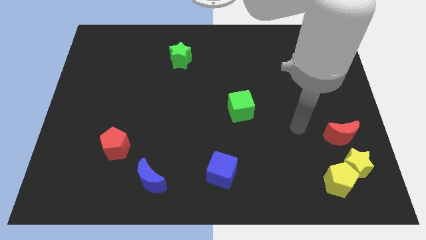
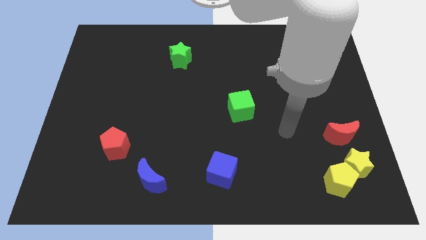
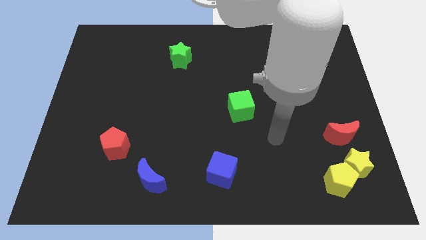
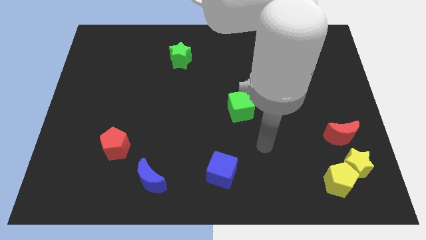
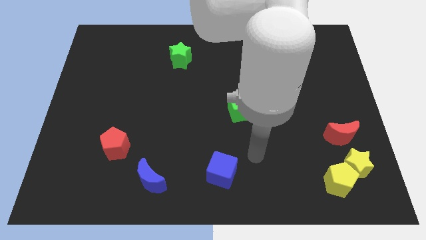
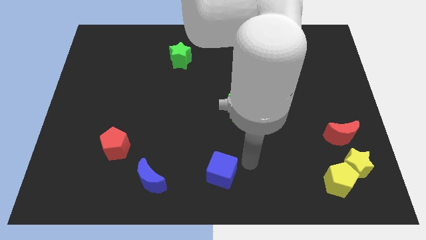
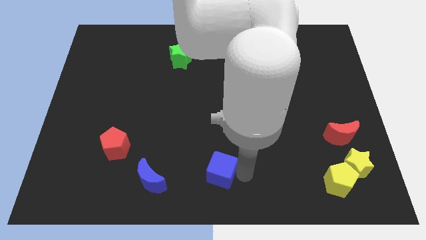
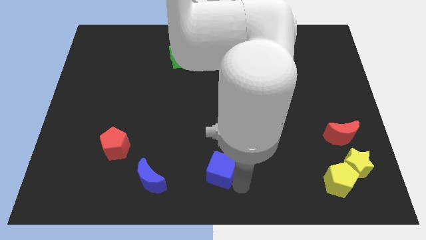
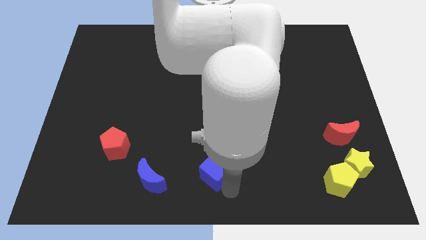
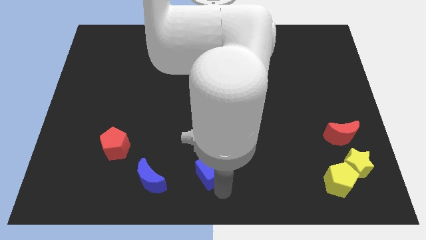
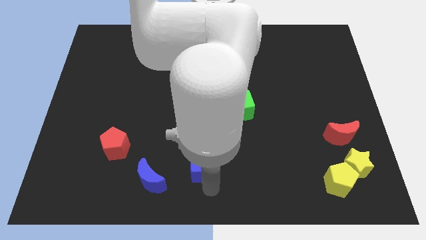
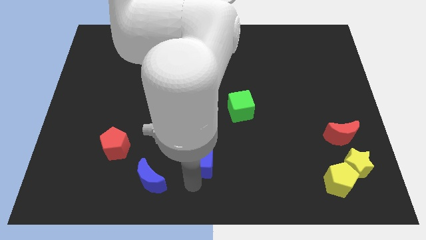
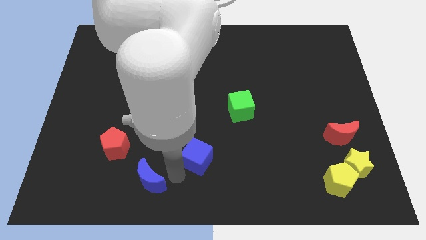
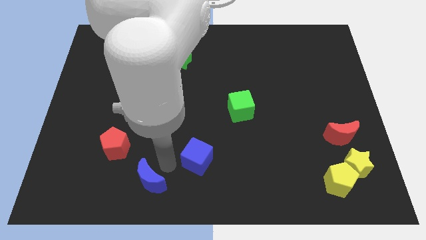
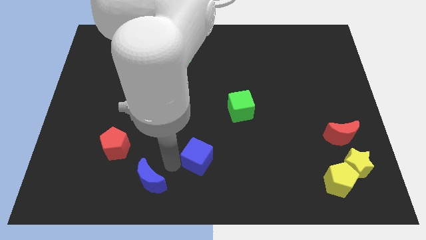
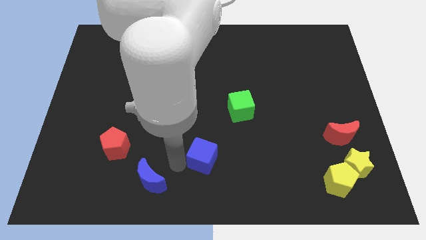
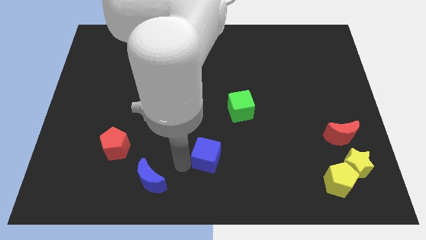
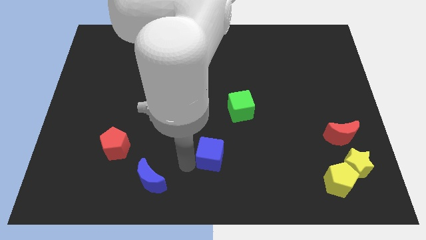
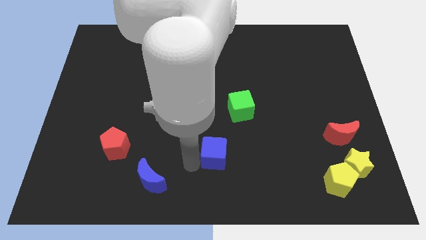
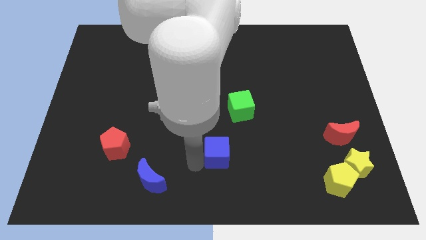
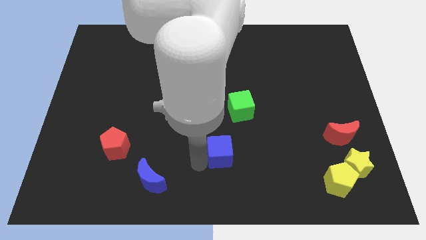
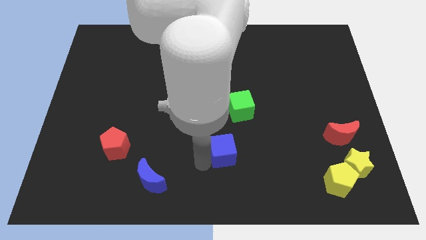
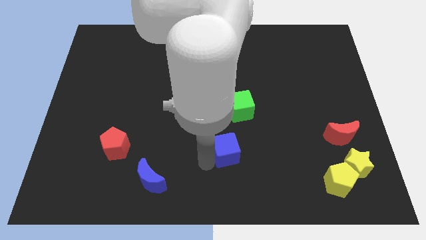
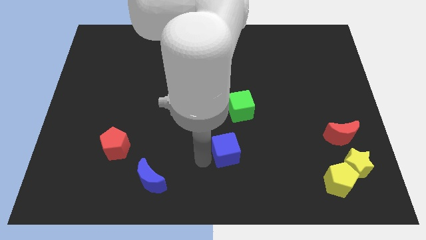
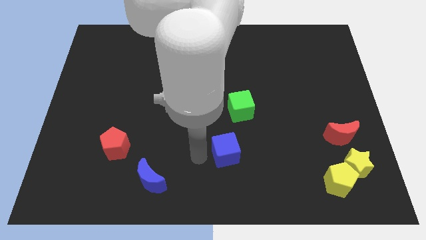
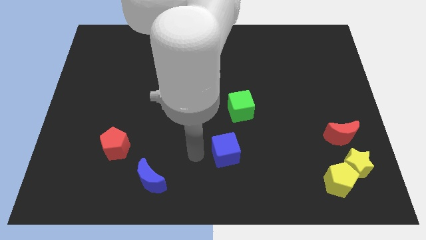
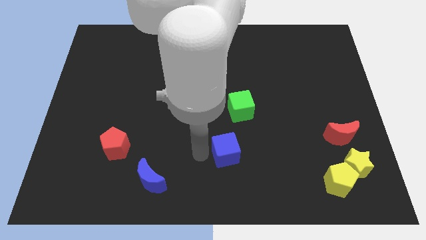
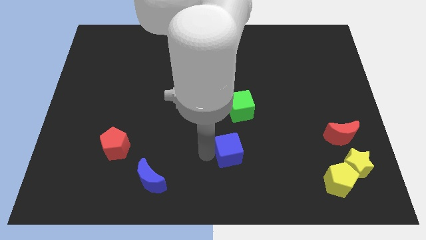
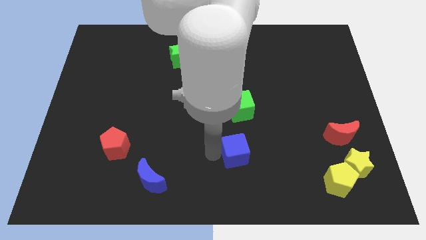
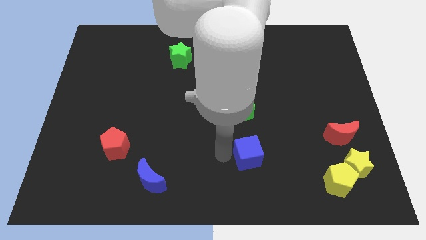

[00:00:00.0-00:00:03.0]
slightly push the blue cube up and to the right diagonally

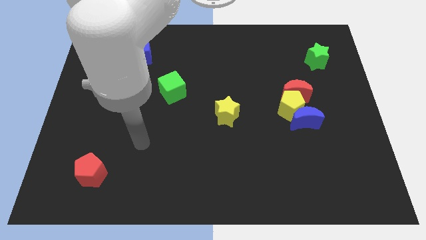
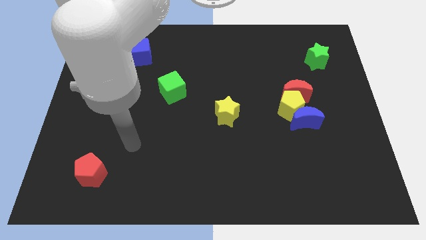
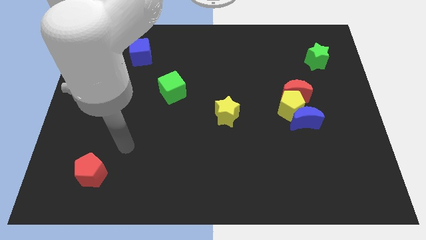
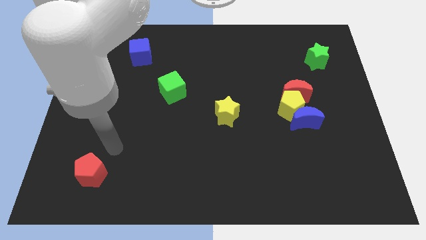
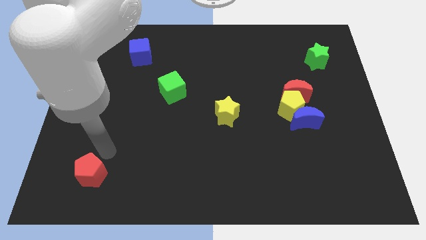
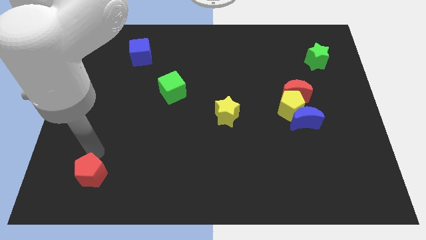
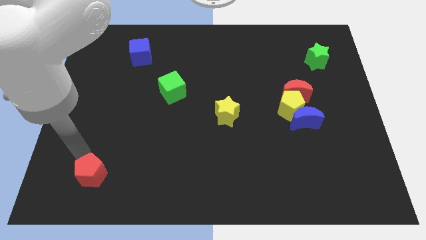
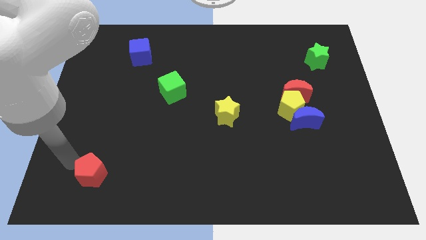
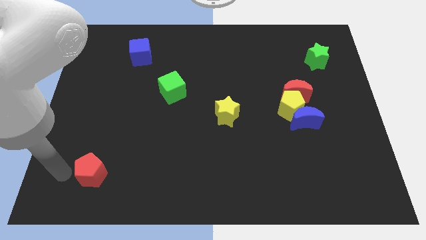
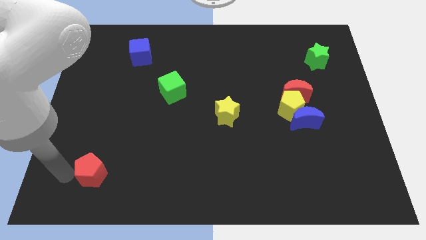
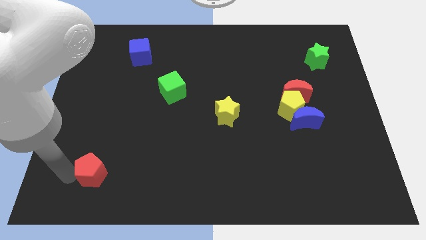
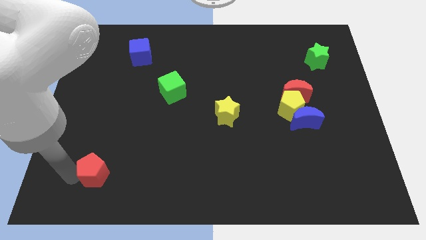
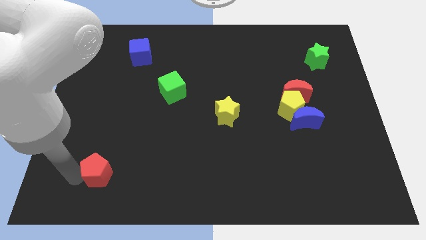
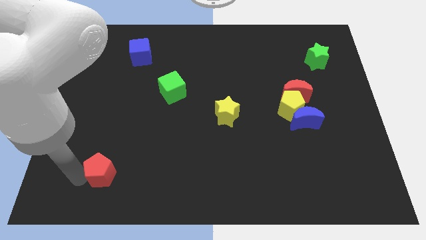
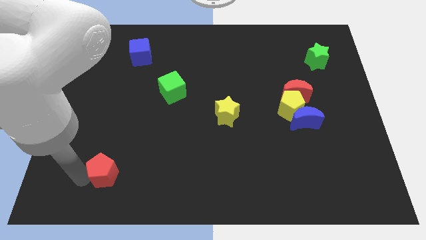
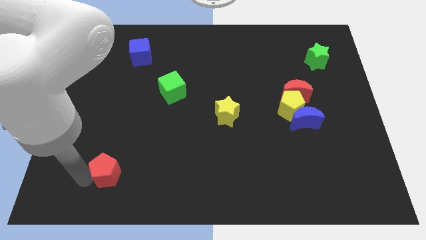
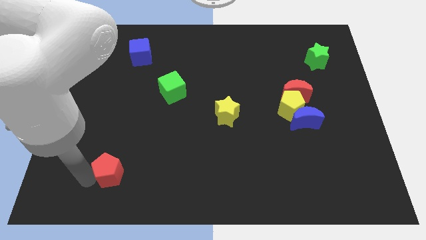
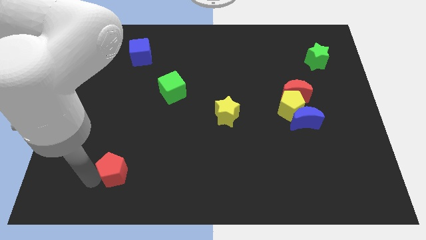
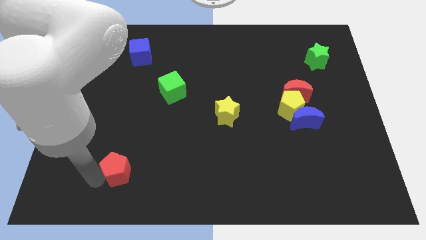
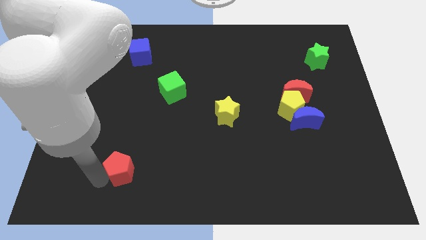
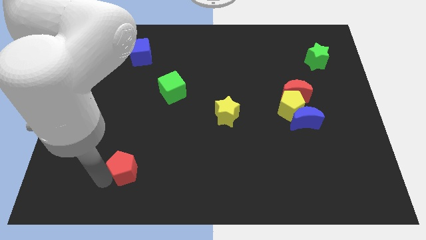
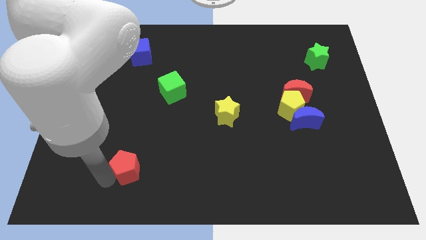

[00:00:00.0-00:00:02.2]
push the red pentagon slightly right

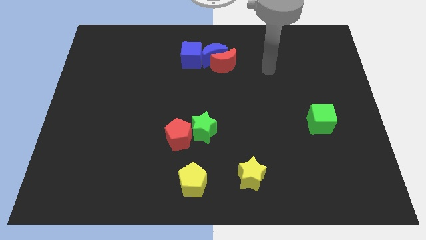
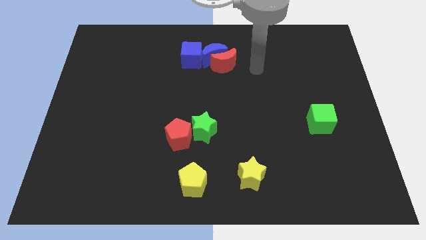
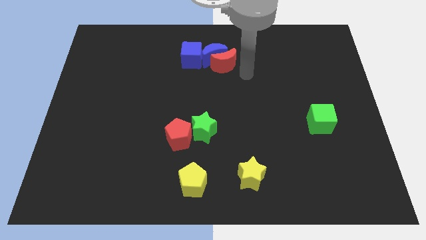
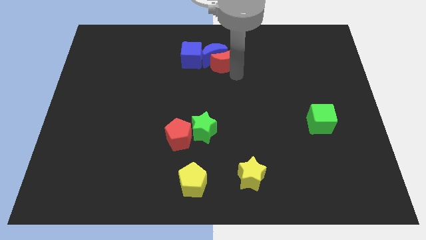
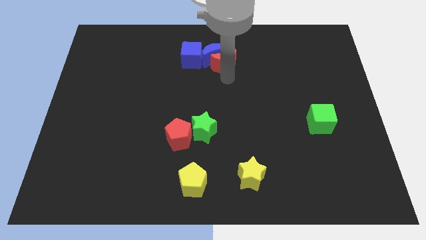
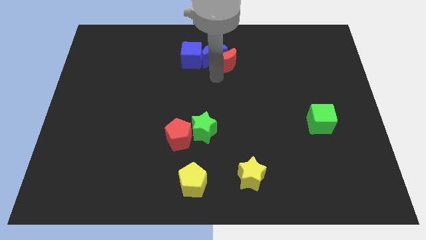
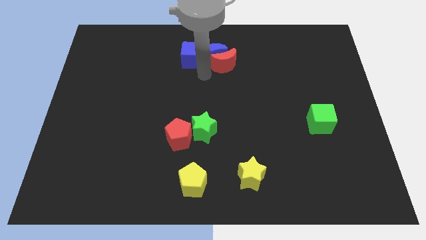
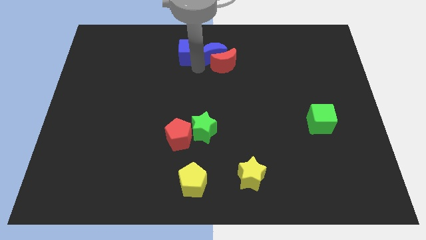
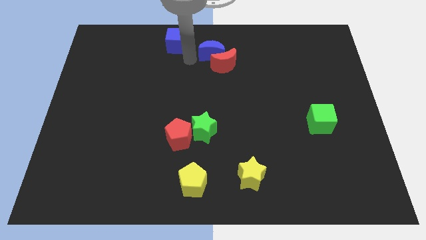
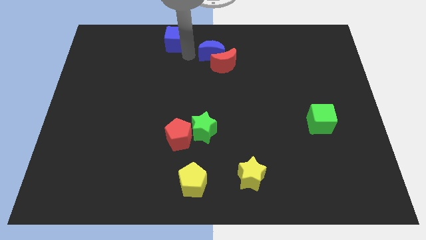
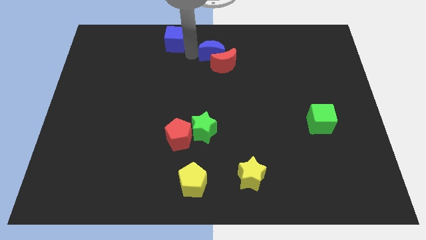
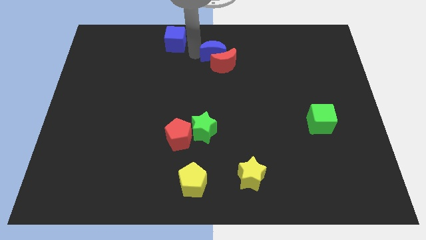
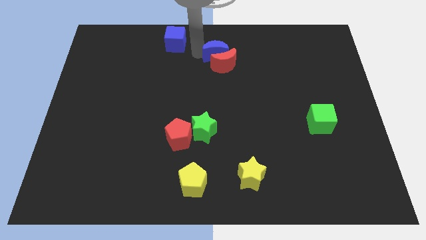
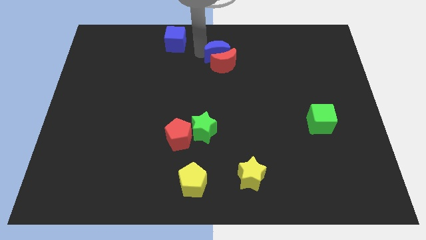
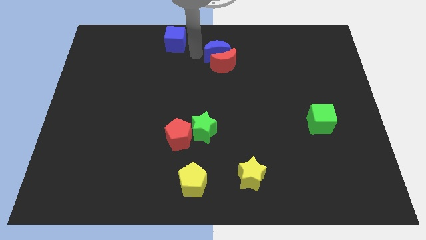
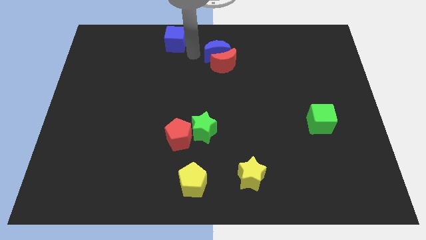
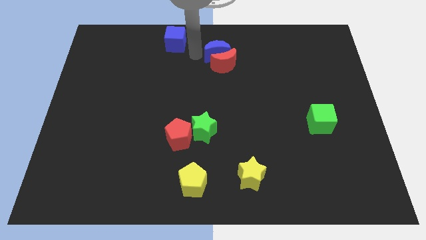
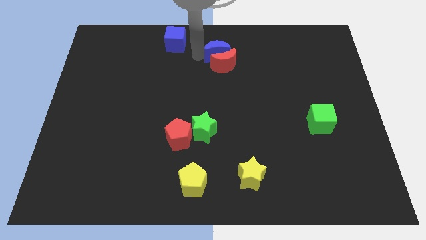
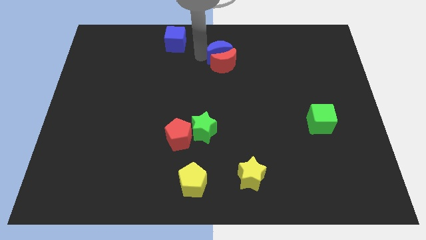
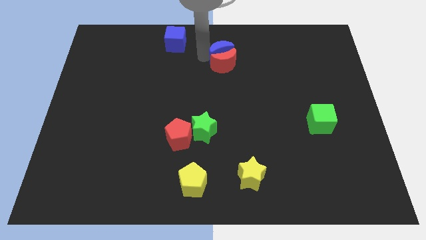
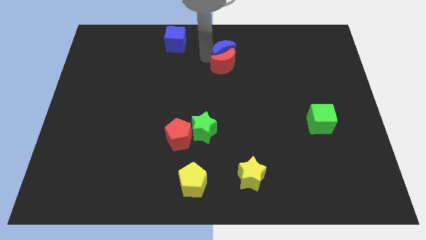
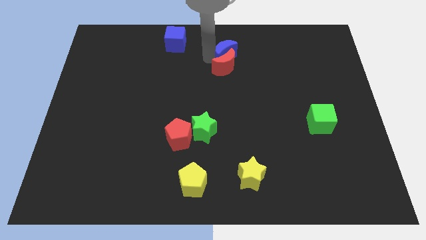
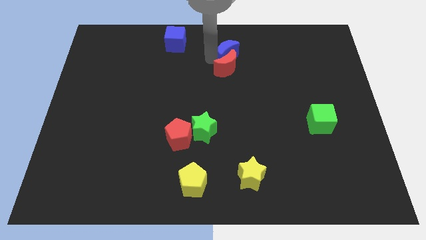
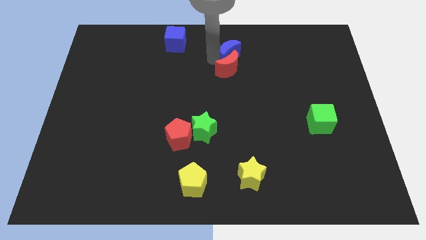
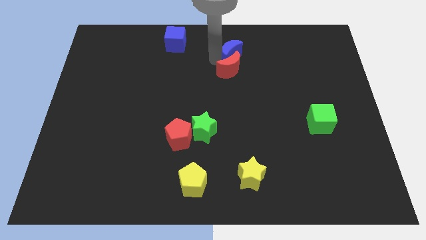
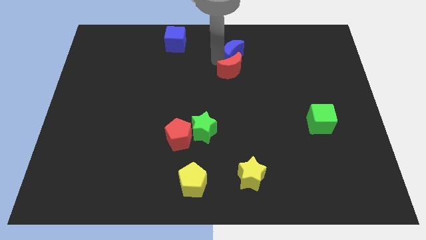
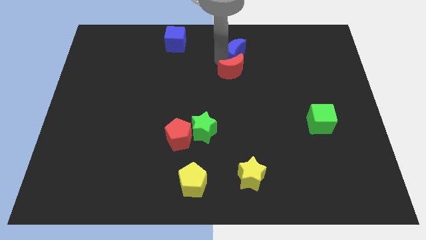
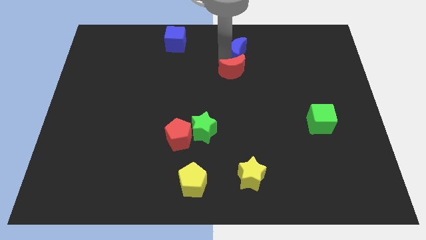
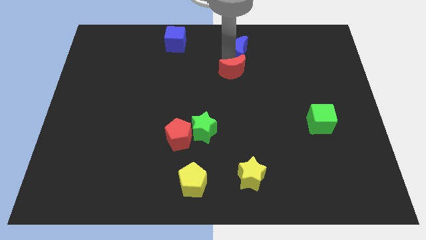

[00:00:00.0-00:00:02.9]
slightly slide the blue moon to the right

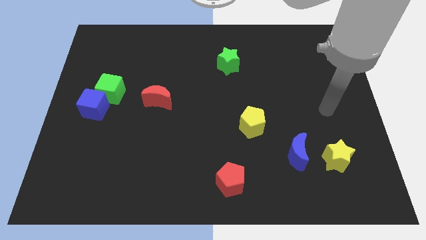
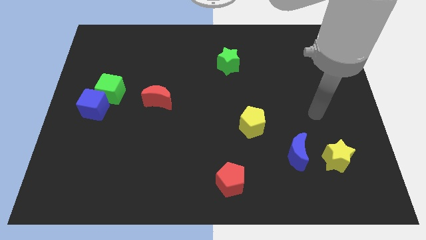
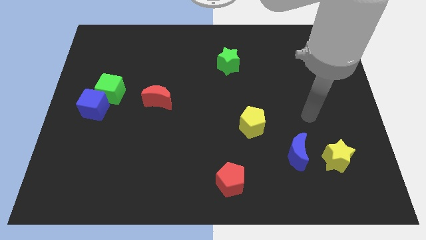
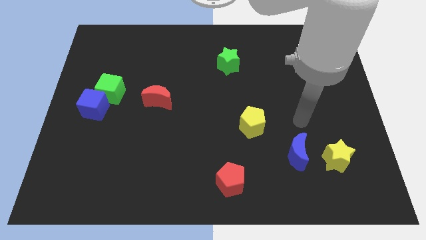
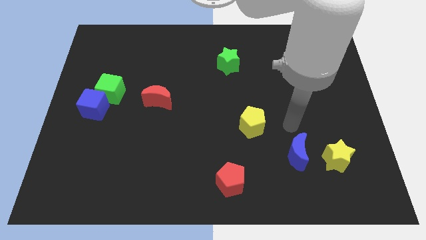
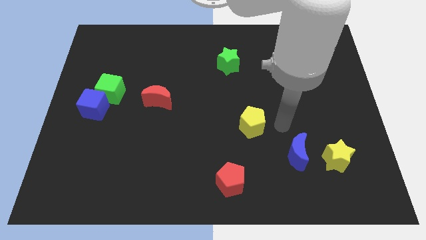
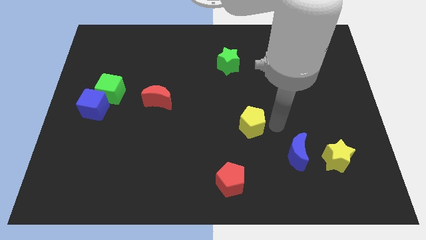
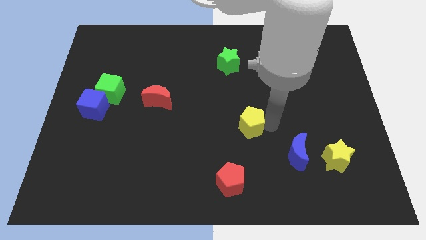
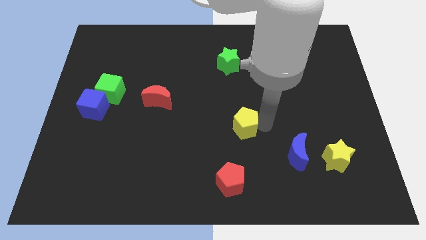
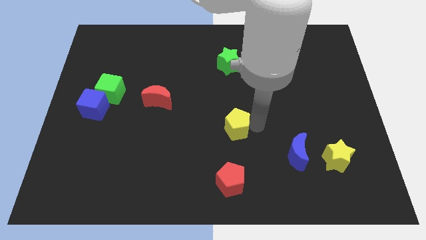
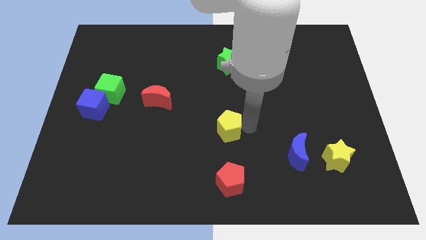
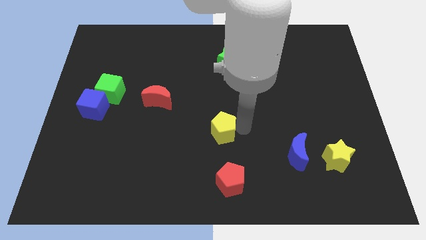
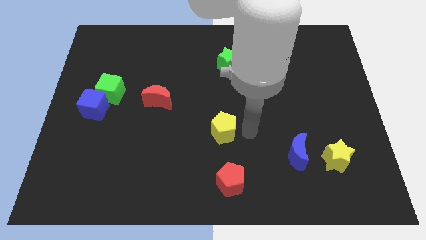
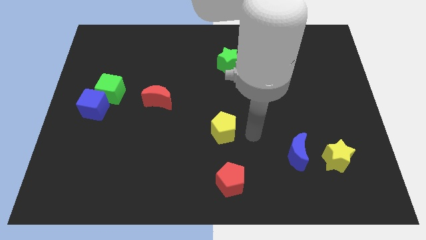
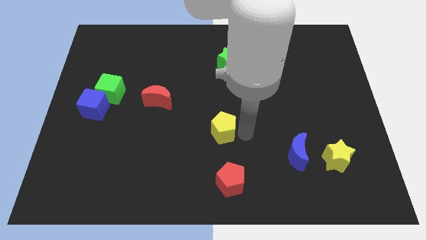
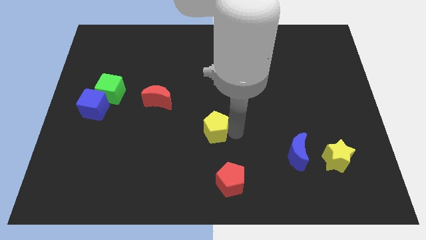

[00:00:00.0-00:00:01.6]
push the yellow pentagon a bit left
